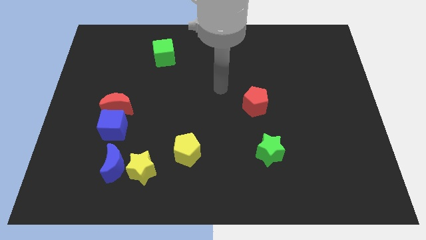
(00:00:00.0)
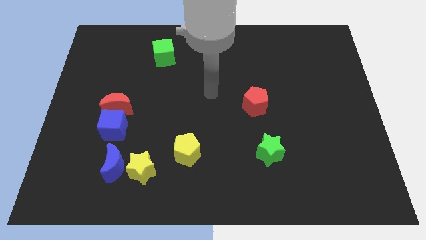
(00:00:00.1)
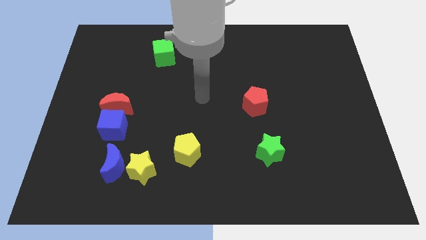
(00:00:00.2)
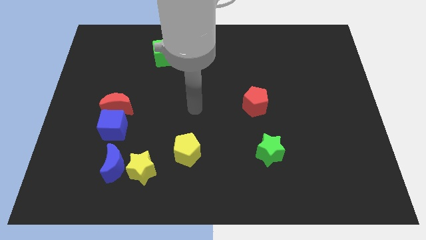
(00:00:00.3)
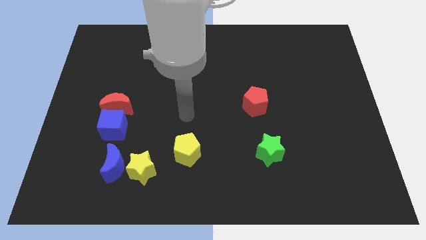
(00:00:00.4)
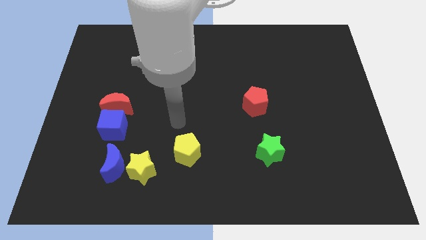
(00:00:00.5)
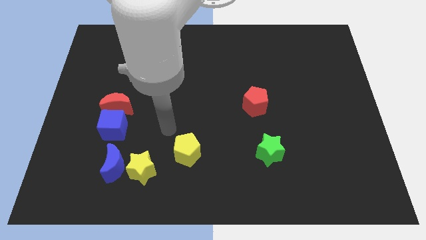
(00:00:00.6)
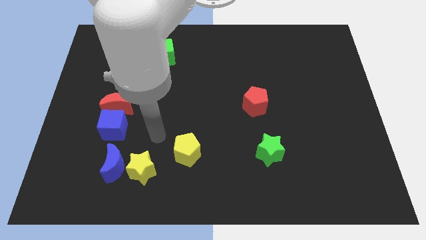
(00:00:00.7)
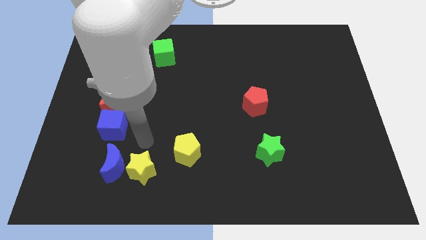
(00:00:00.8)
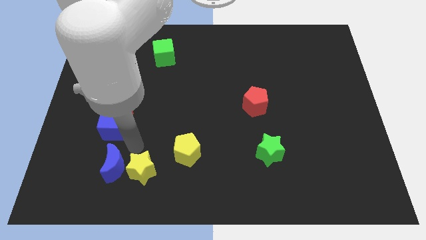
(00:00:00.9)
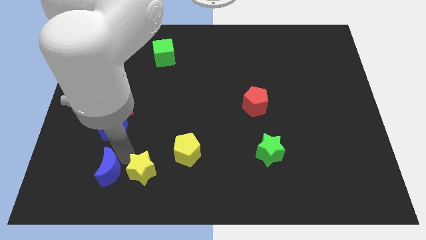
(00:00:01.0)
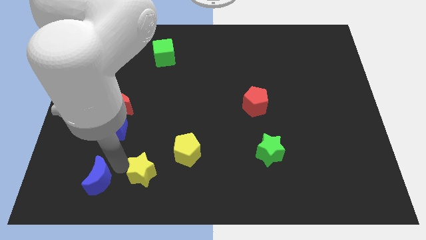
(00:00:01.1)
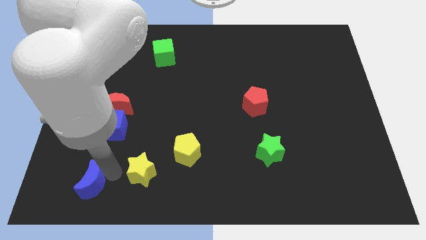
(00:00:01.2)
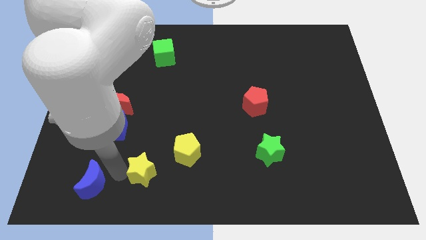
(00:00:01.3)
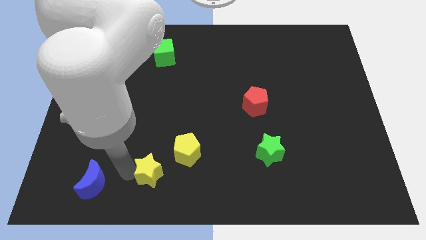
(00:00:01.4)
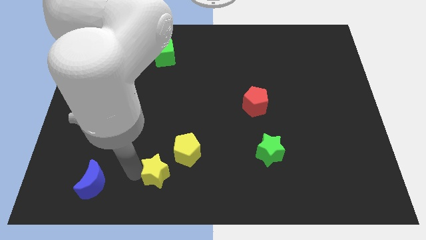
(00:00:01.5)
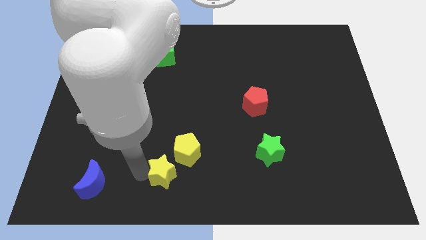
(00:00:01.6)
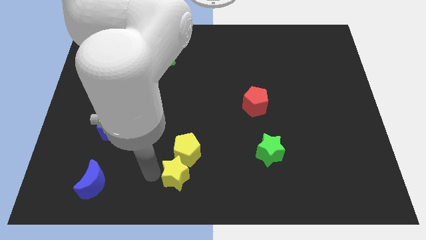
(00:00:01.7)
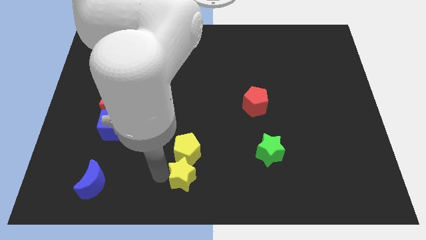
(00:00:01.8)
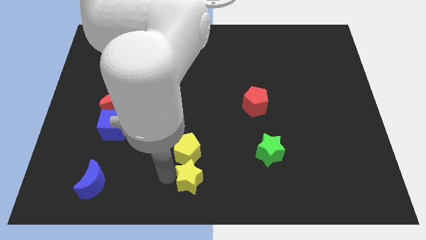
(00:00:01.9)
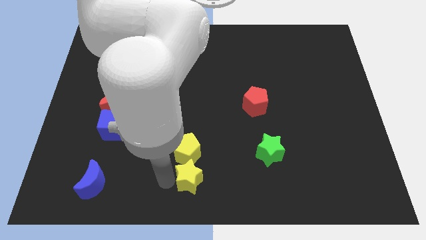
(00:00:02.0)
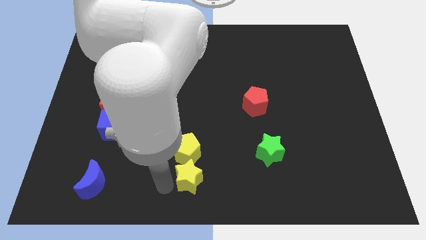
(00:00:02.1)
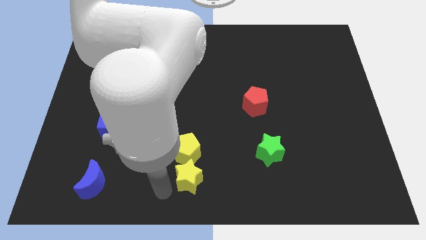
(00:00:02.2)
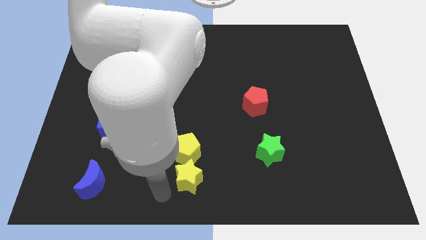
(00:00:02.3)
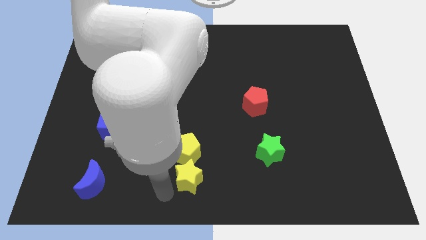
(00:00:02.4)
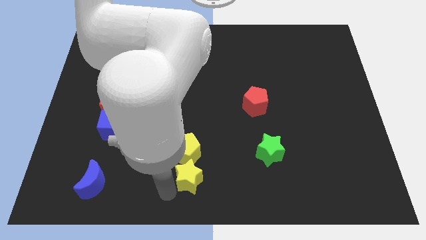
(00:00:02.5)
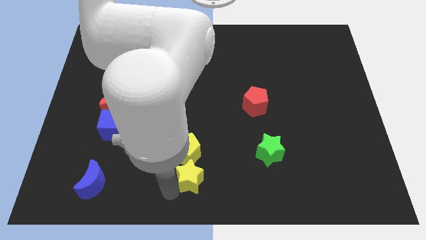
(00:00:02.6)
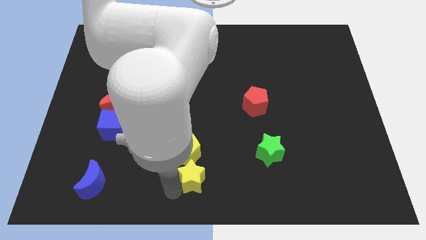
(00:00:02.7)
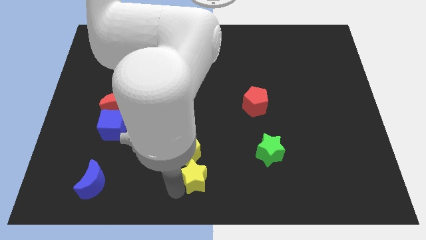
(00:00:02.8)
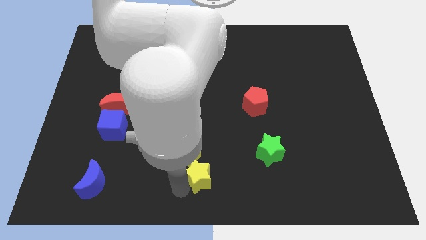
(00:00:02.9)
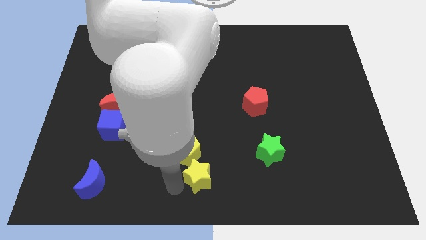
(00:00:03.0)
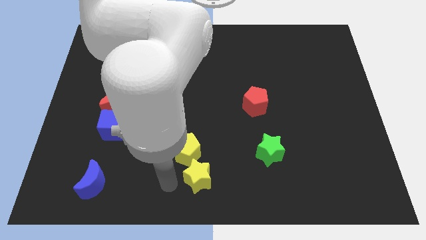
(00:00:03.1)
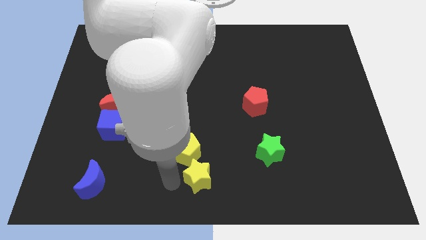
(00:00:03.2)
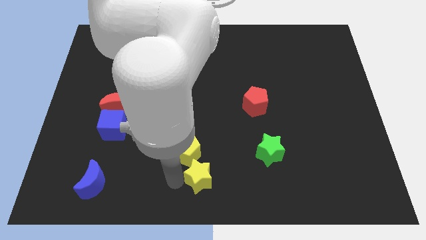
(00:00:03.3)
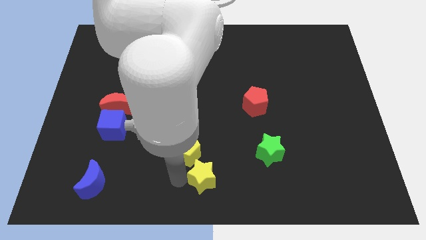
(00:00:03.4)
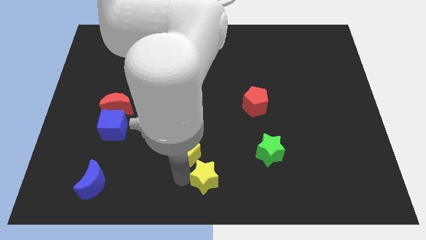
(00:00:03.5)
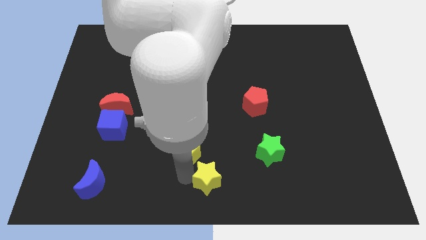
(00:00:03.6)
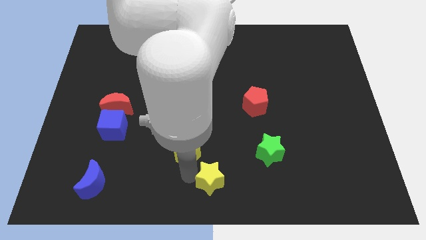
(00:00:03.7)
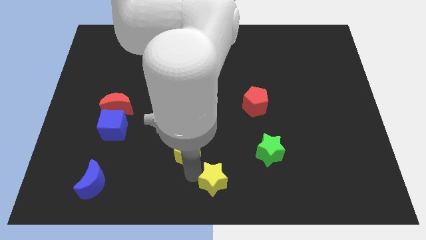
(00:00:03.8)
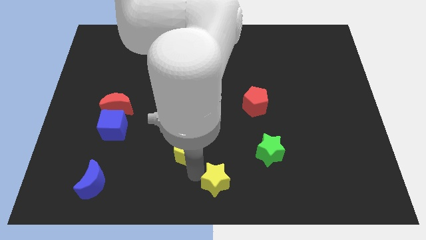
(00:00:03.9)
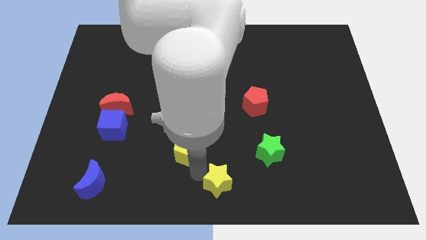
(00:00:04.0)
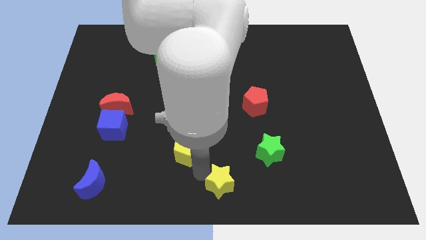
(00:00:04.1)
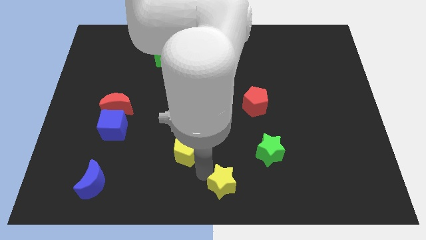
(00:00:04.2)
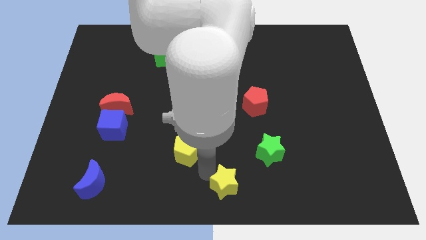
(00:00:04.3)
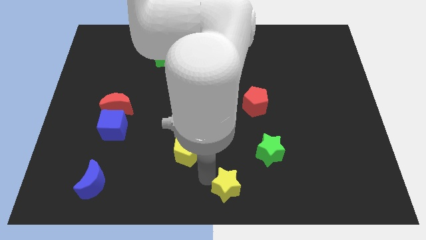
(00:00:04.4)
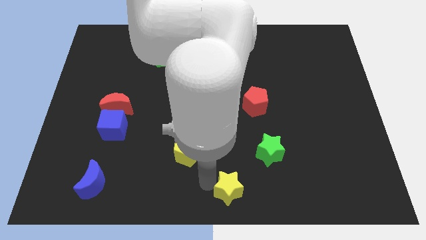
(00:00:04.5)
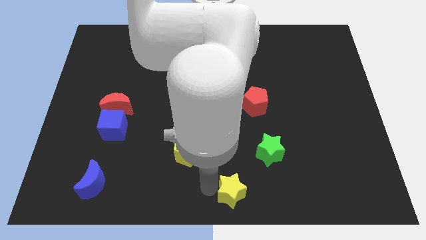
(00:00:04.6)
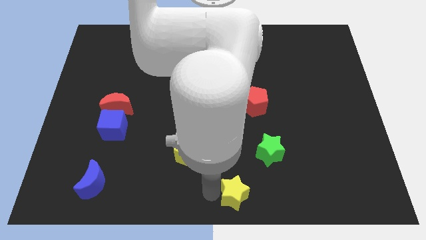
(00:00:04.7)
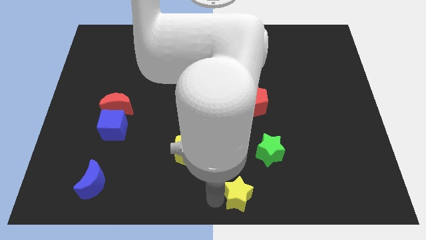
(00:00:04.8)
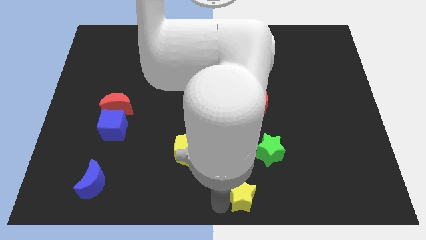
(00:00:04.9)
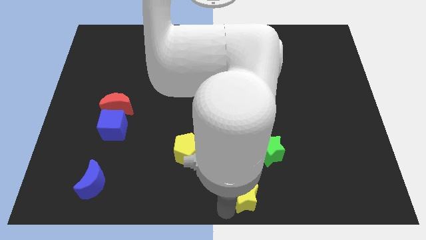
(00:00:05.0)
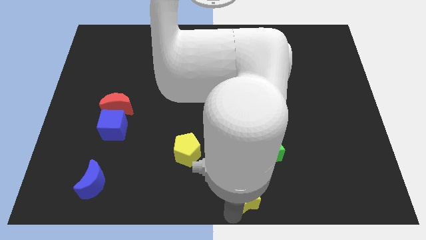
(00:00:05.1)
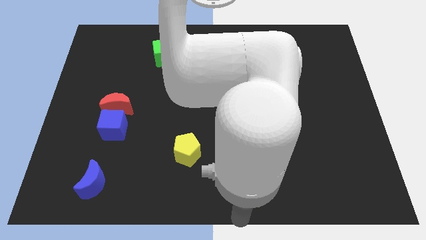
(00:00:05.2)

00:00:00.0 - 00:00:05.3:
slide the yellow star to the right

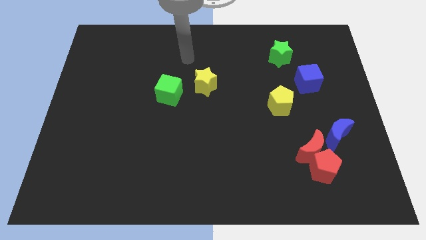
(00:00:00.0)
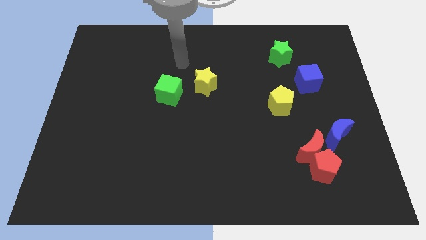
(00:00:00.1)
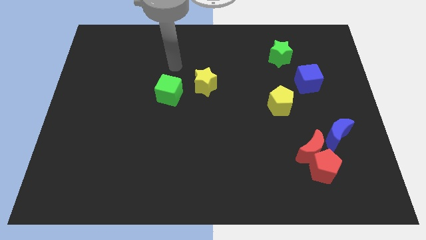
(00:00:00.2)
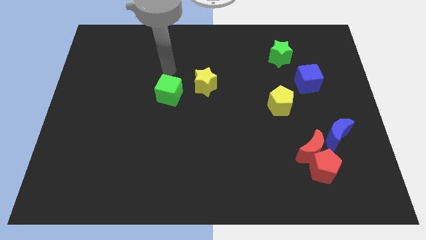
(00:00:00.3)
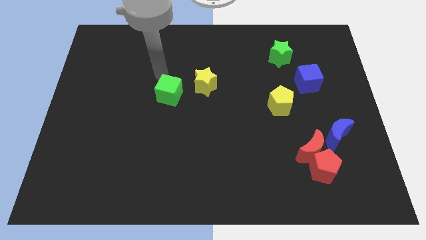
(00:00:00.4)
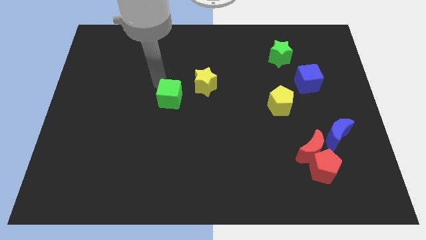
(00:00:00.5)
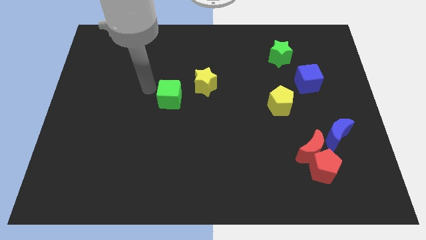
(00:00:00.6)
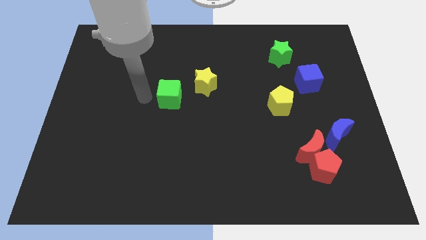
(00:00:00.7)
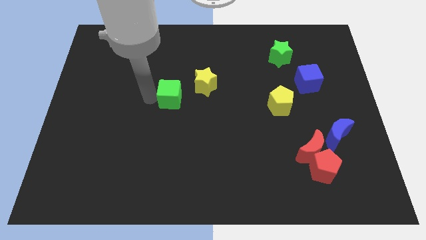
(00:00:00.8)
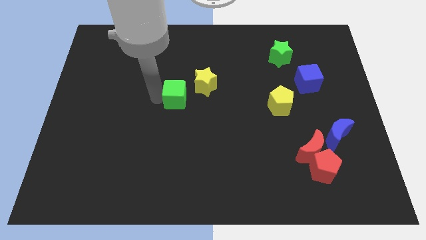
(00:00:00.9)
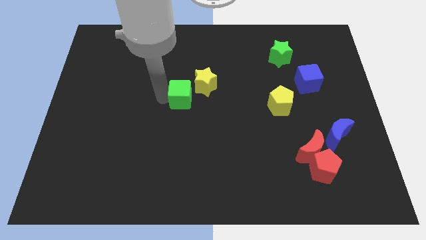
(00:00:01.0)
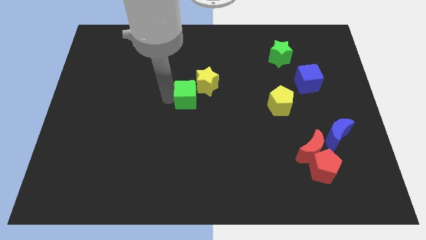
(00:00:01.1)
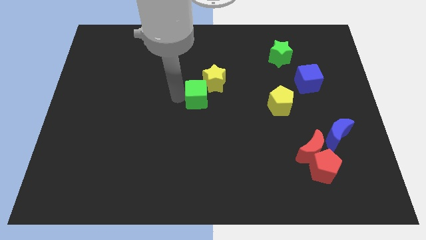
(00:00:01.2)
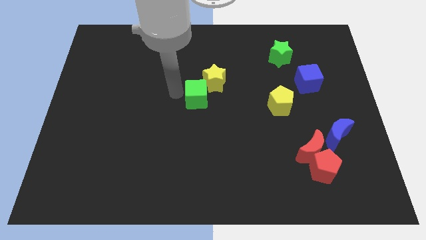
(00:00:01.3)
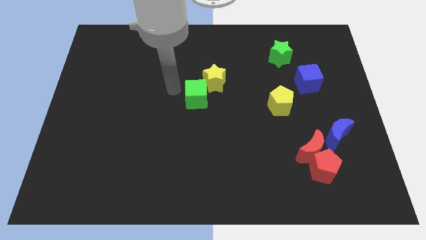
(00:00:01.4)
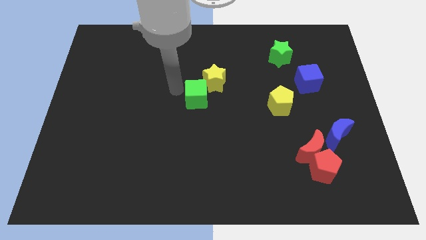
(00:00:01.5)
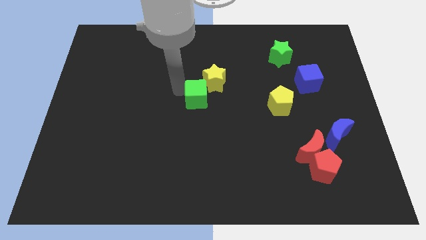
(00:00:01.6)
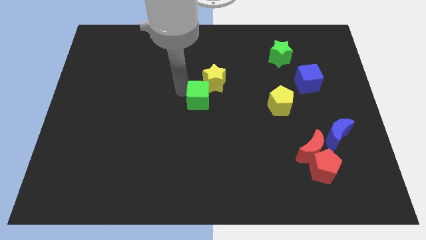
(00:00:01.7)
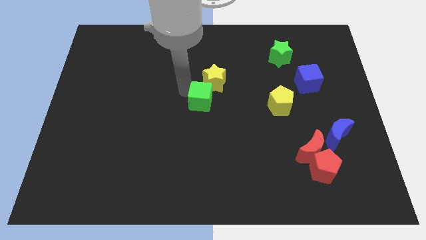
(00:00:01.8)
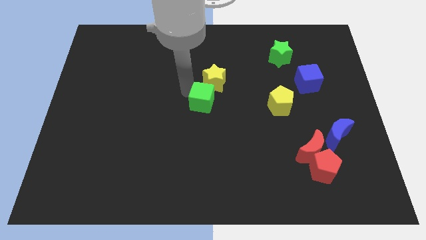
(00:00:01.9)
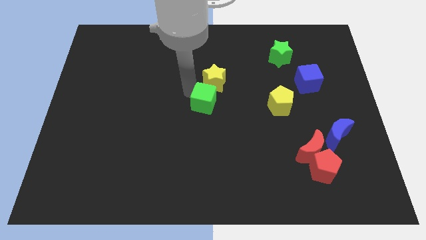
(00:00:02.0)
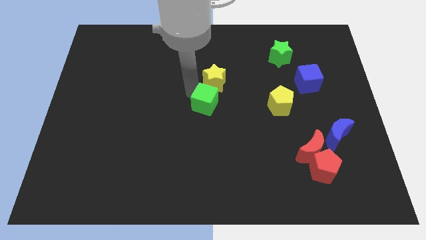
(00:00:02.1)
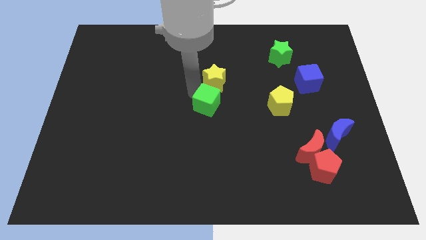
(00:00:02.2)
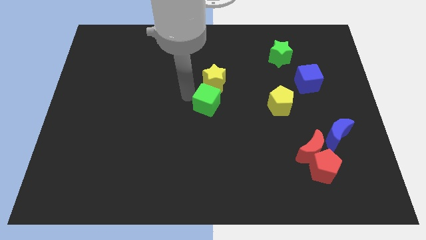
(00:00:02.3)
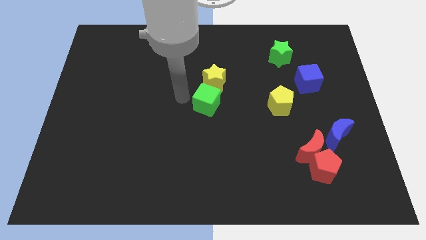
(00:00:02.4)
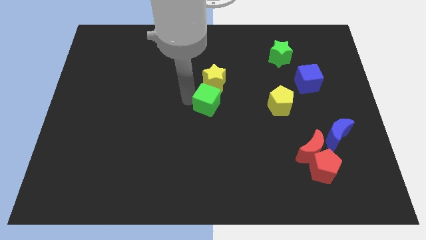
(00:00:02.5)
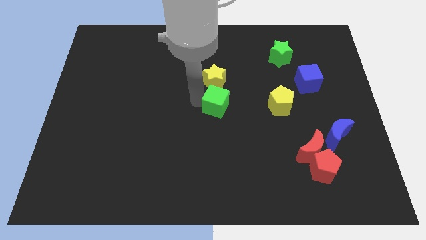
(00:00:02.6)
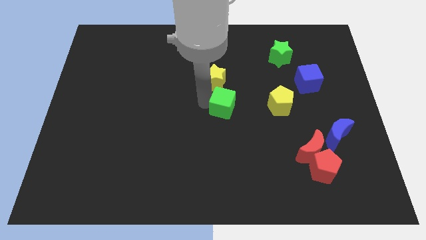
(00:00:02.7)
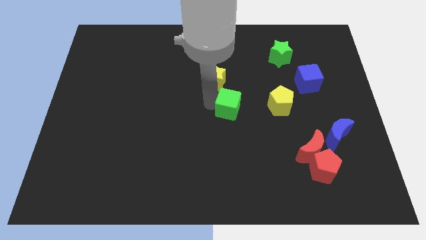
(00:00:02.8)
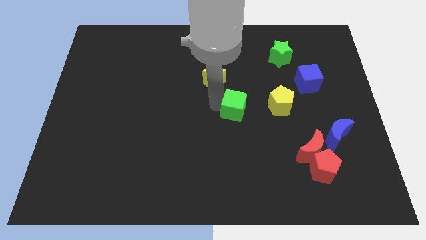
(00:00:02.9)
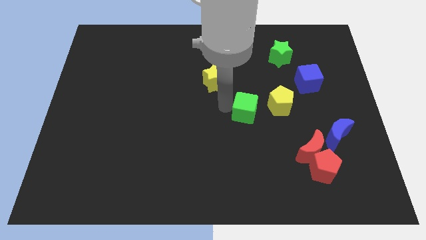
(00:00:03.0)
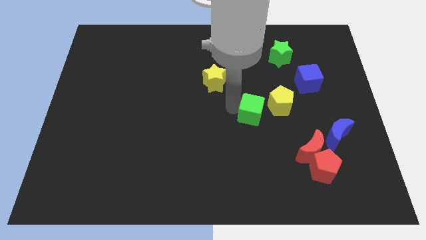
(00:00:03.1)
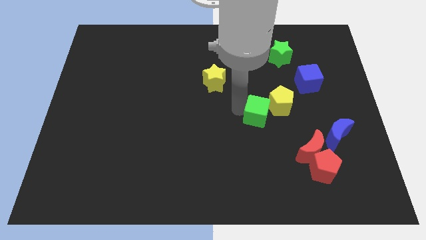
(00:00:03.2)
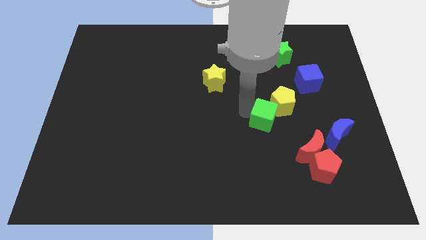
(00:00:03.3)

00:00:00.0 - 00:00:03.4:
slide the green cube right
